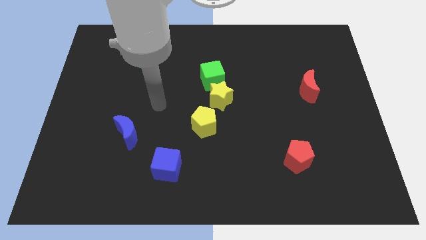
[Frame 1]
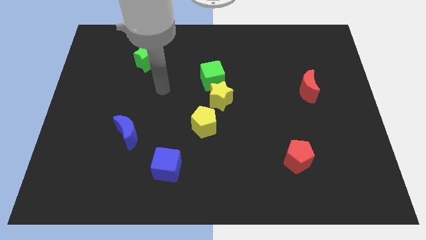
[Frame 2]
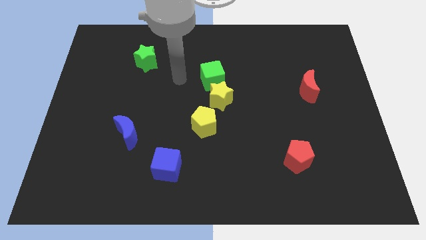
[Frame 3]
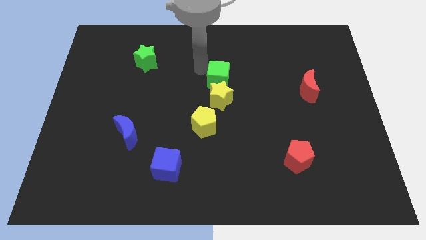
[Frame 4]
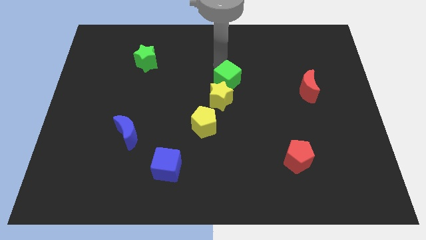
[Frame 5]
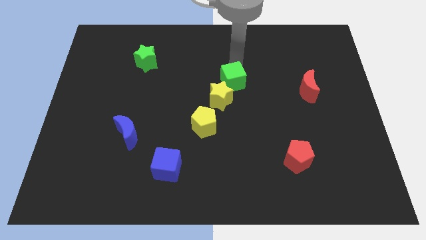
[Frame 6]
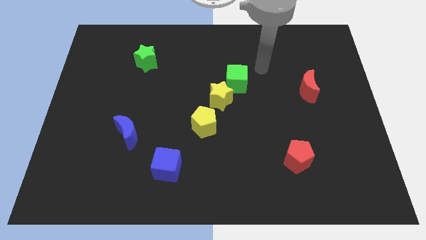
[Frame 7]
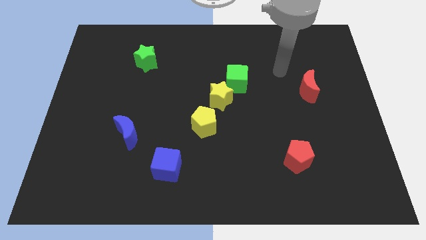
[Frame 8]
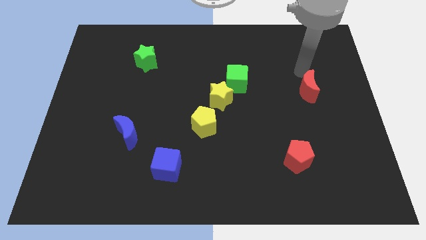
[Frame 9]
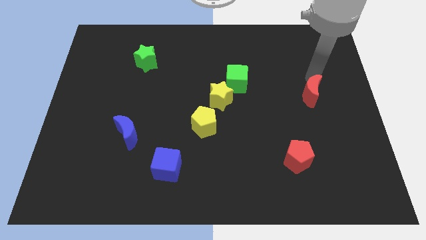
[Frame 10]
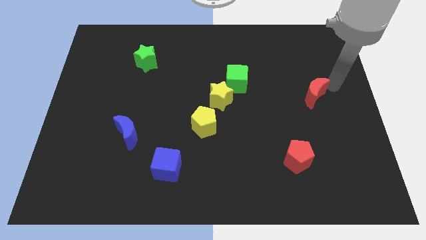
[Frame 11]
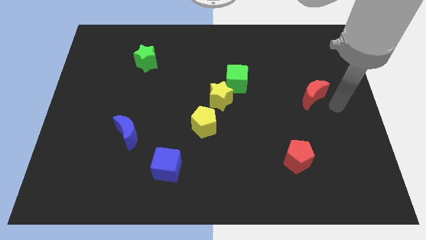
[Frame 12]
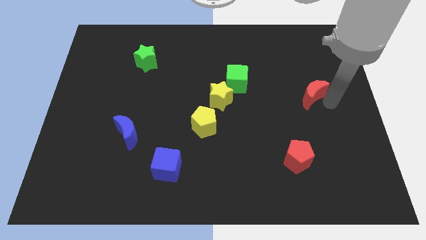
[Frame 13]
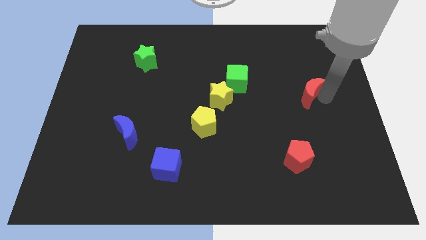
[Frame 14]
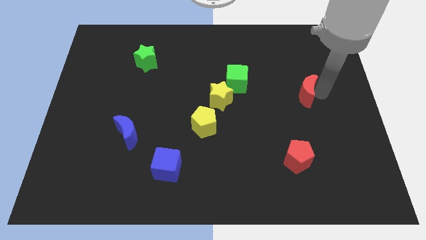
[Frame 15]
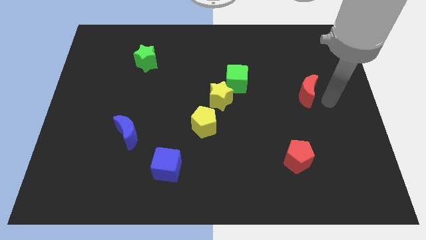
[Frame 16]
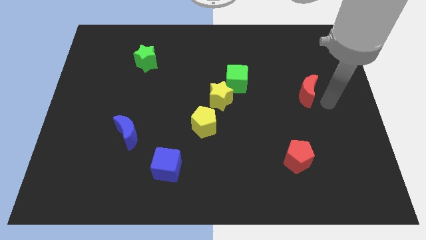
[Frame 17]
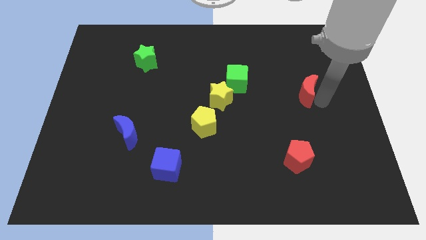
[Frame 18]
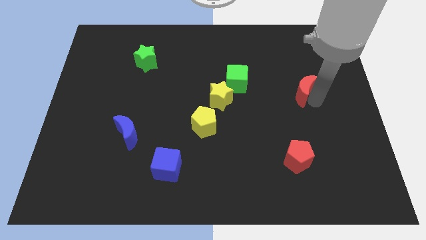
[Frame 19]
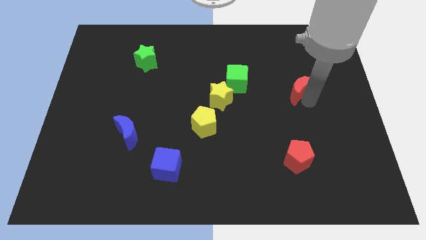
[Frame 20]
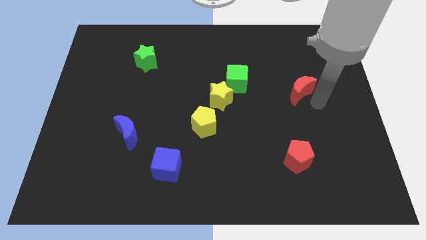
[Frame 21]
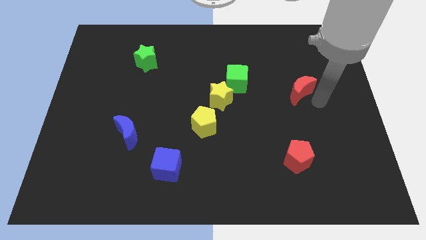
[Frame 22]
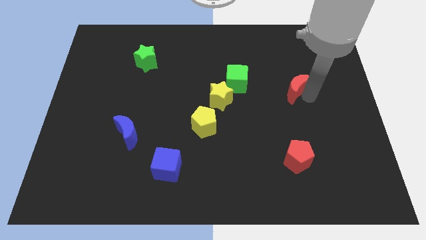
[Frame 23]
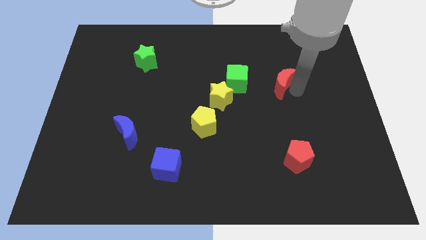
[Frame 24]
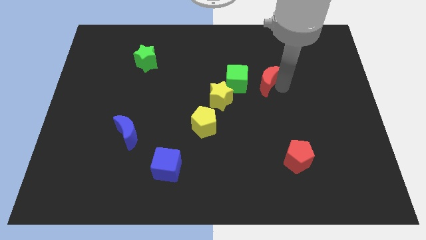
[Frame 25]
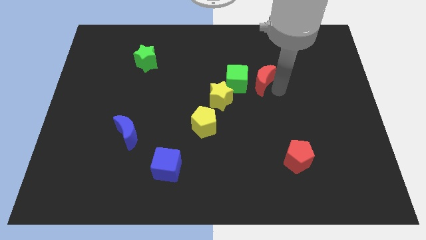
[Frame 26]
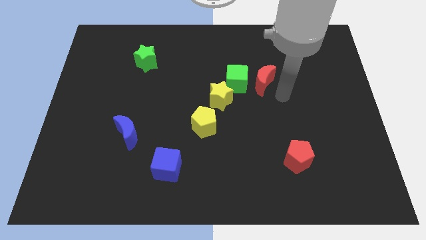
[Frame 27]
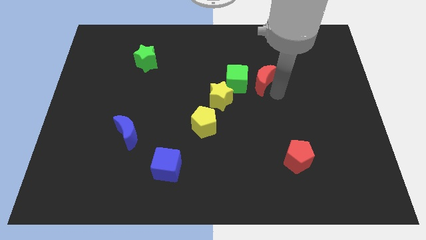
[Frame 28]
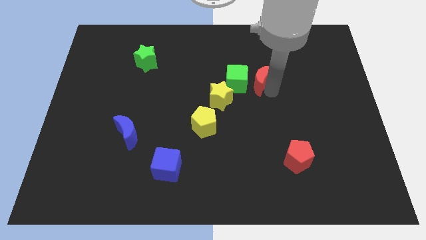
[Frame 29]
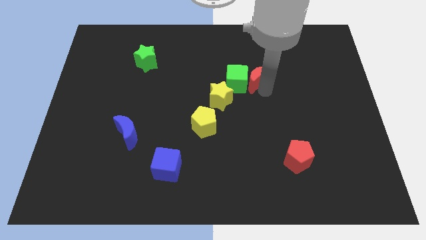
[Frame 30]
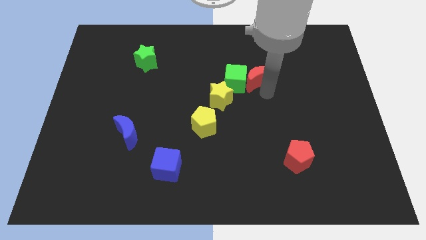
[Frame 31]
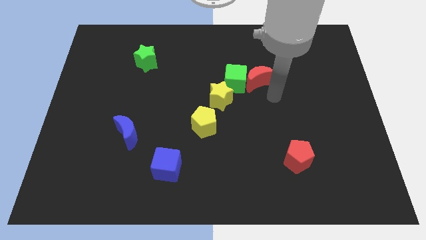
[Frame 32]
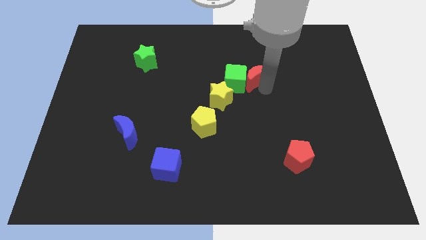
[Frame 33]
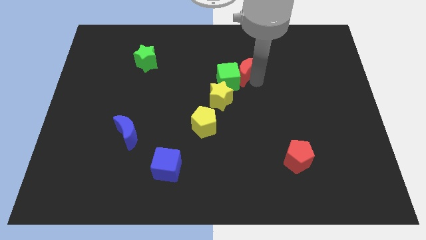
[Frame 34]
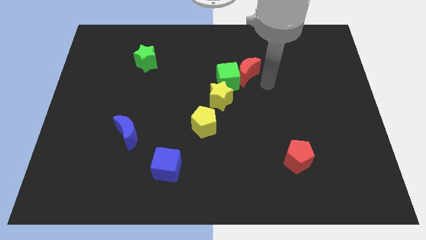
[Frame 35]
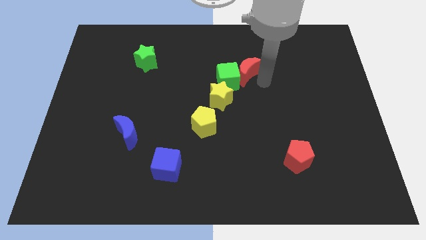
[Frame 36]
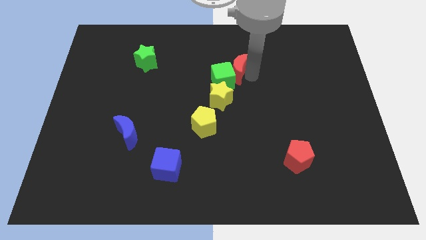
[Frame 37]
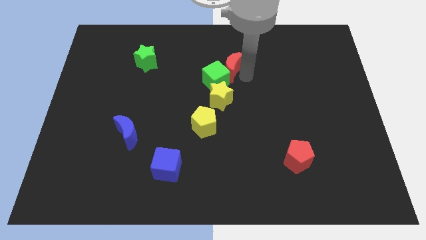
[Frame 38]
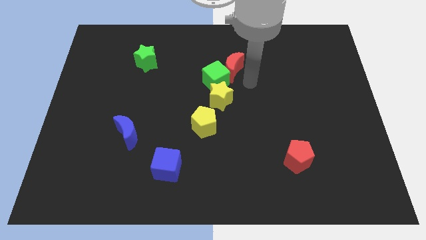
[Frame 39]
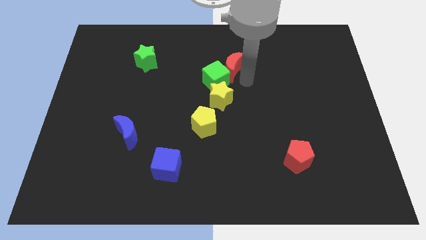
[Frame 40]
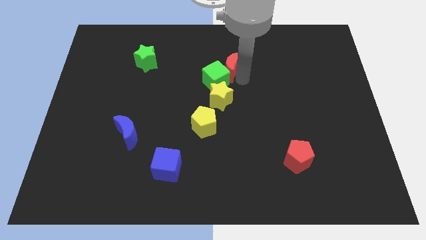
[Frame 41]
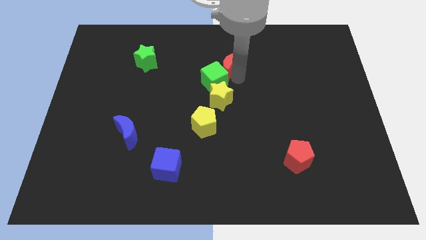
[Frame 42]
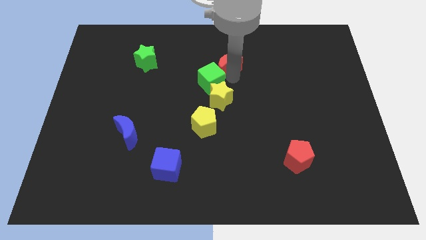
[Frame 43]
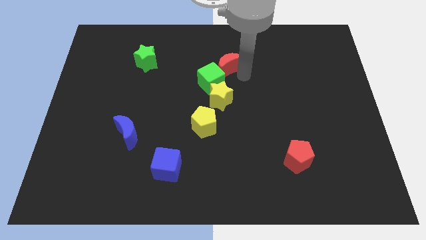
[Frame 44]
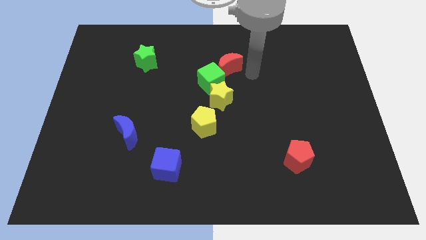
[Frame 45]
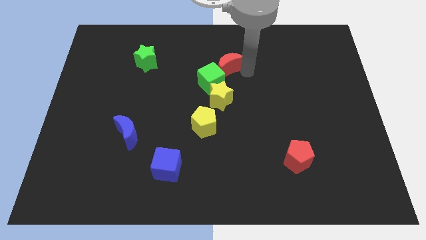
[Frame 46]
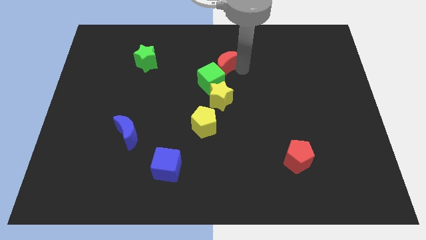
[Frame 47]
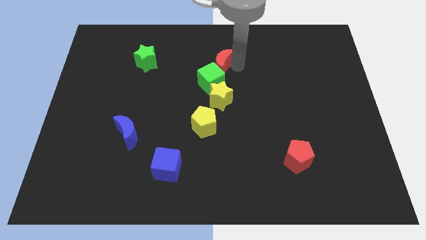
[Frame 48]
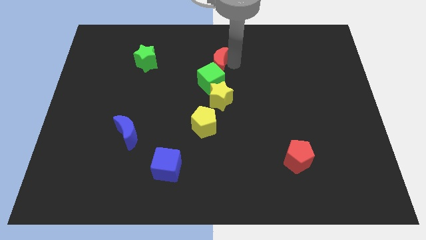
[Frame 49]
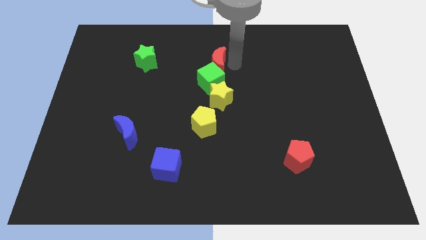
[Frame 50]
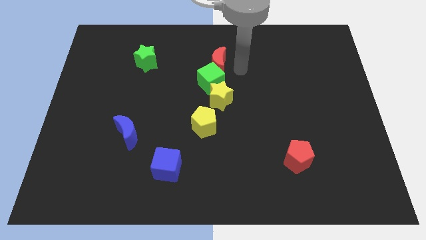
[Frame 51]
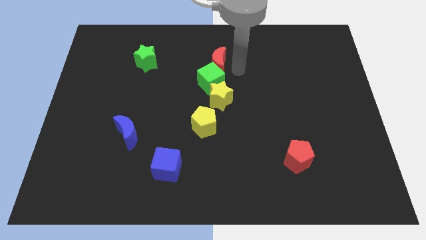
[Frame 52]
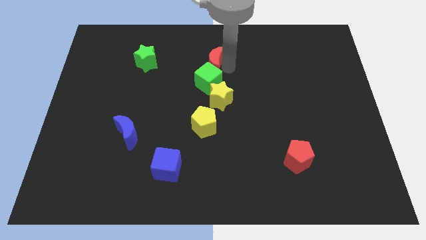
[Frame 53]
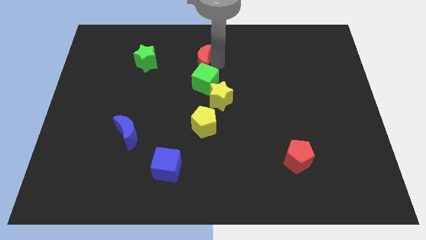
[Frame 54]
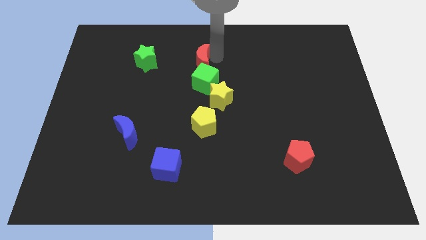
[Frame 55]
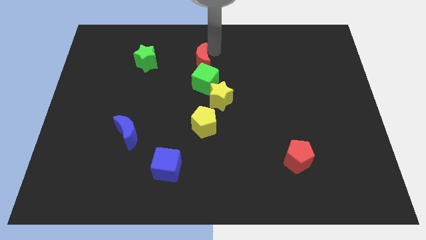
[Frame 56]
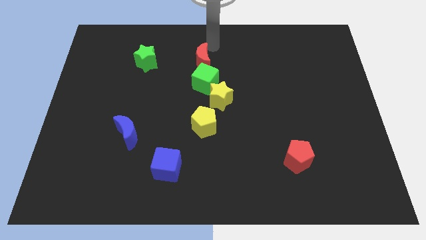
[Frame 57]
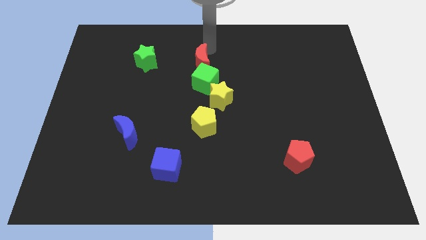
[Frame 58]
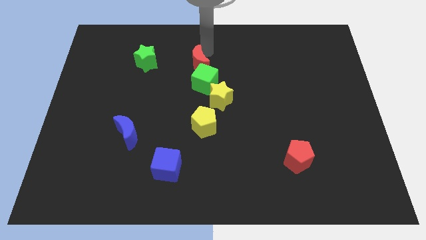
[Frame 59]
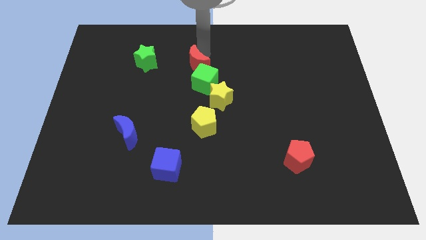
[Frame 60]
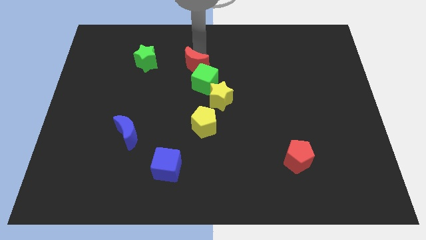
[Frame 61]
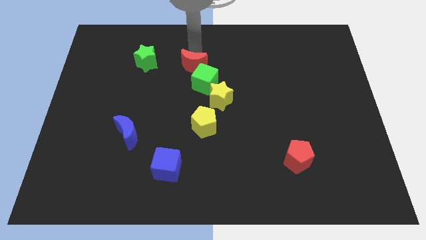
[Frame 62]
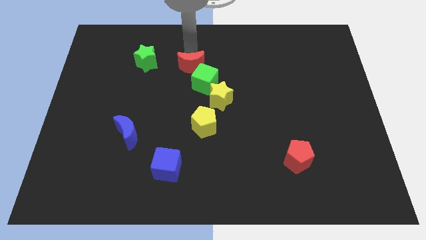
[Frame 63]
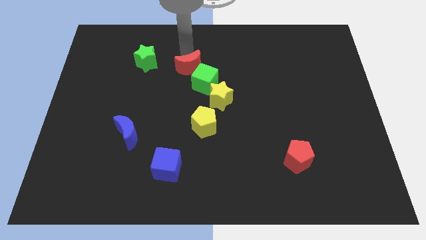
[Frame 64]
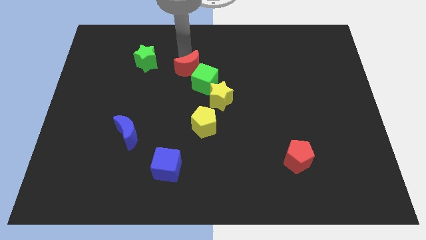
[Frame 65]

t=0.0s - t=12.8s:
put the red moon to the left side of the green cube

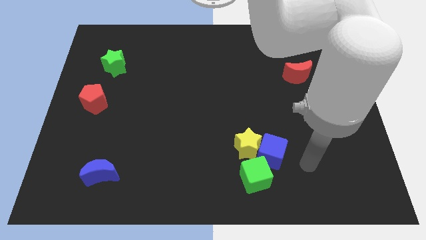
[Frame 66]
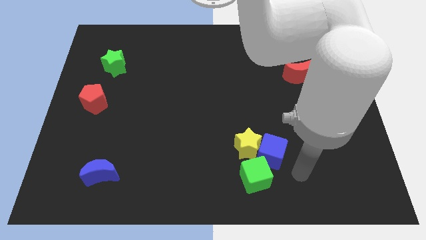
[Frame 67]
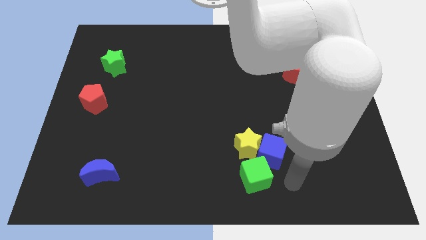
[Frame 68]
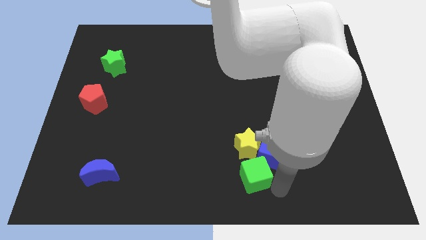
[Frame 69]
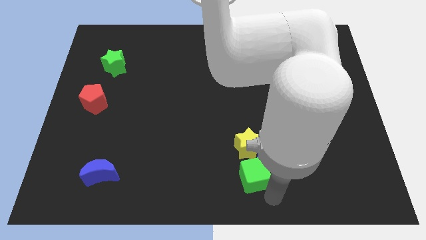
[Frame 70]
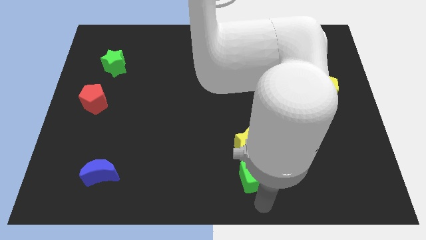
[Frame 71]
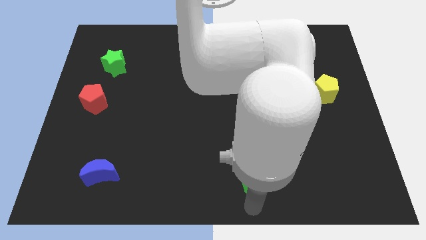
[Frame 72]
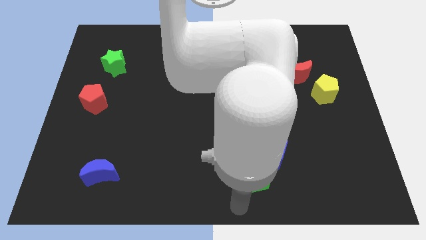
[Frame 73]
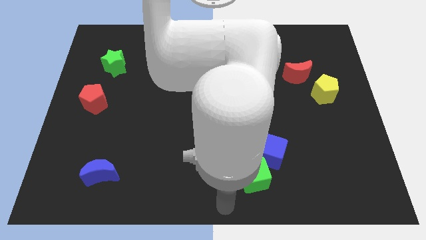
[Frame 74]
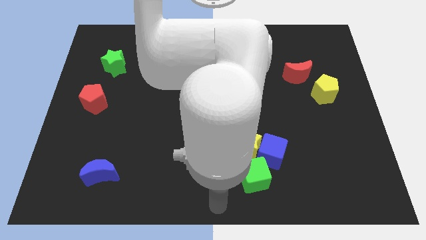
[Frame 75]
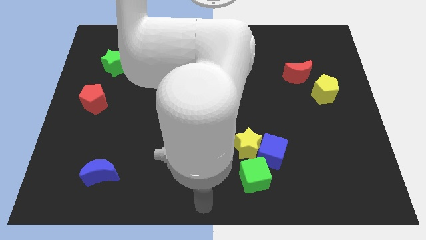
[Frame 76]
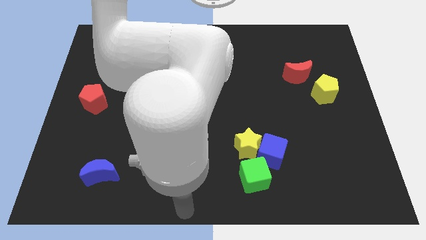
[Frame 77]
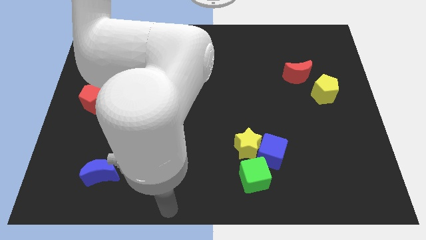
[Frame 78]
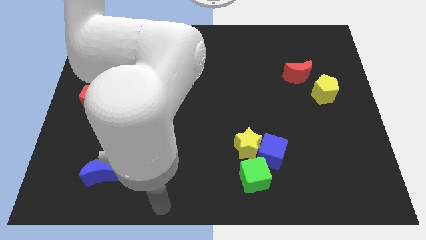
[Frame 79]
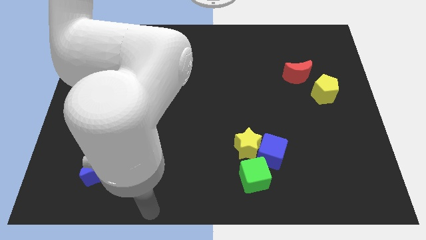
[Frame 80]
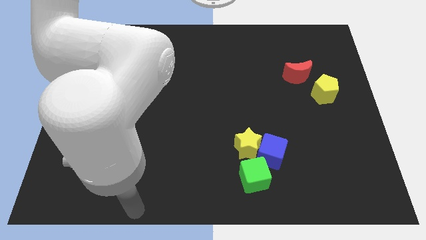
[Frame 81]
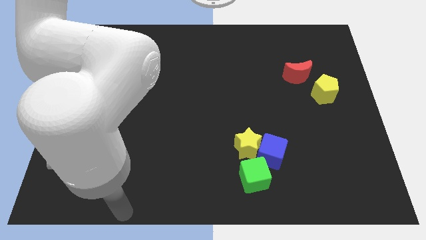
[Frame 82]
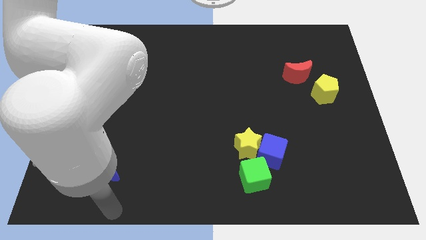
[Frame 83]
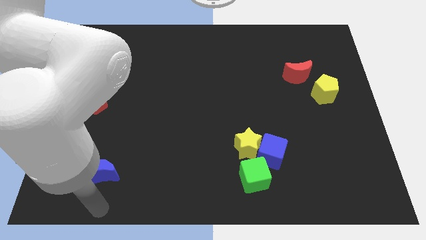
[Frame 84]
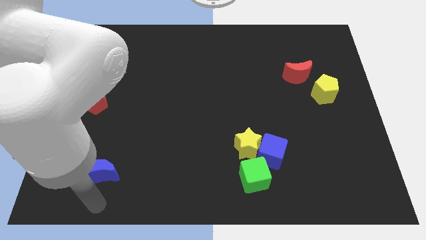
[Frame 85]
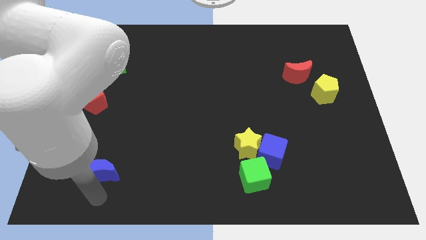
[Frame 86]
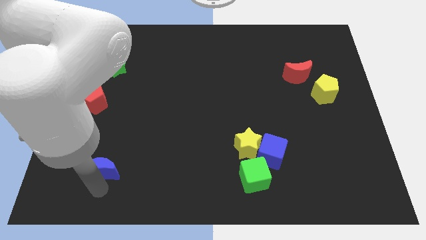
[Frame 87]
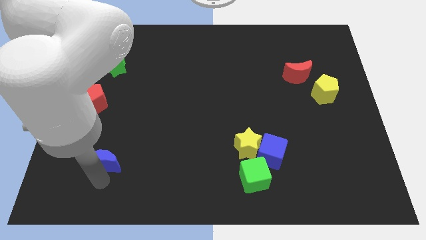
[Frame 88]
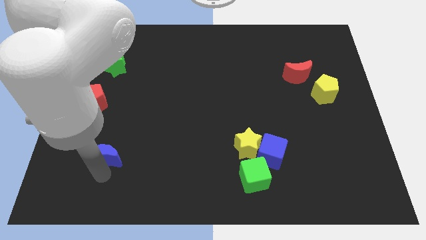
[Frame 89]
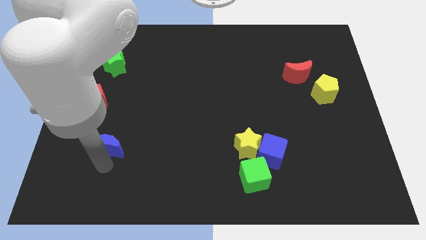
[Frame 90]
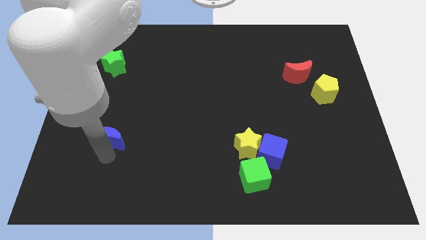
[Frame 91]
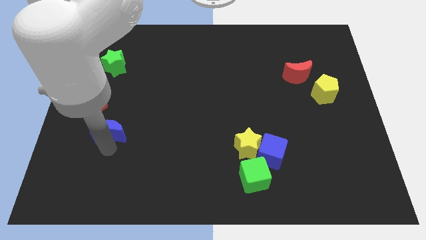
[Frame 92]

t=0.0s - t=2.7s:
move the blue moon diagonally down and to the right of the red pentagon
